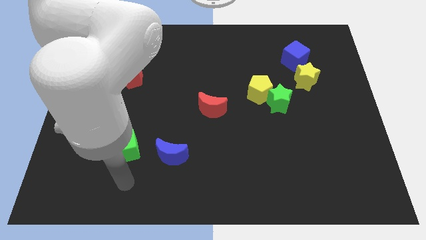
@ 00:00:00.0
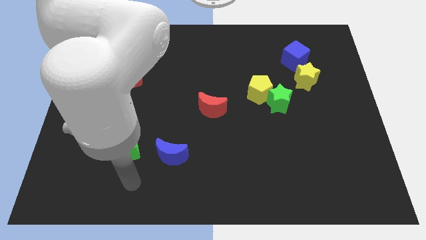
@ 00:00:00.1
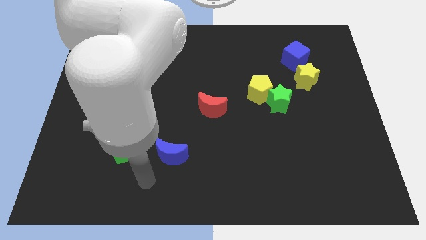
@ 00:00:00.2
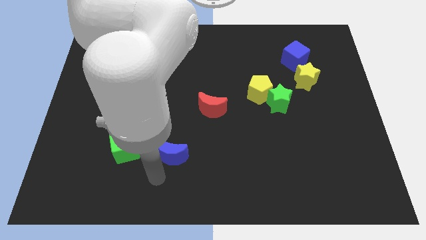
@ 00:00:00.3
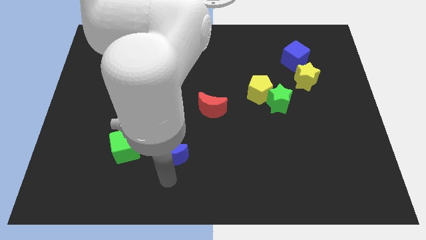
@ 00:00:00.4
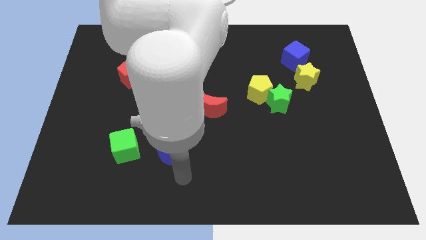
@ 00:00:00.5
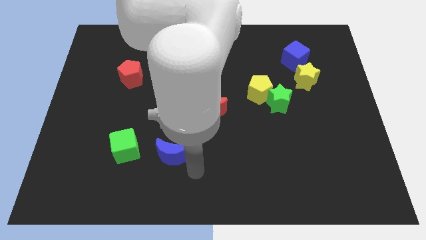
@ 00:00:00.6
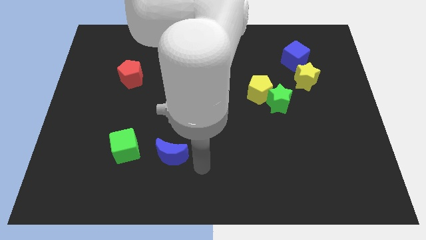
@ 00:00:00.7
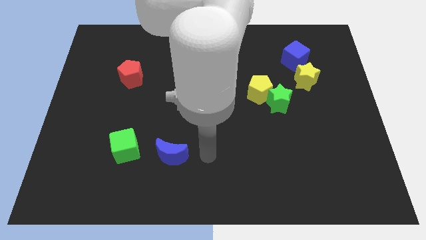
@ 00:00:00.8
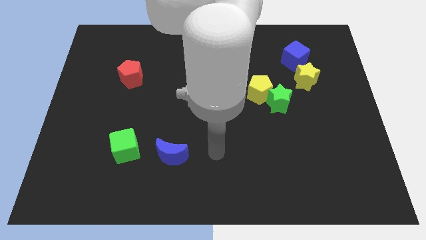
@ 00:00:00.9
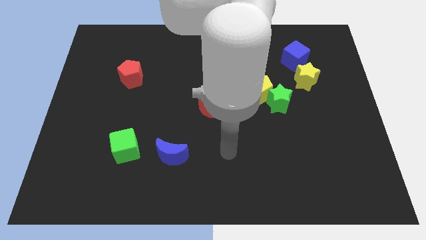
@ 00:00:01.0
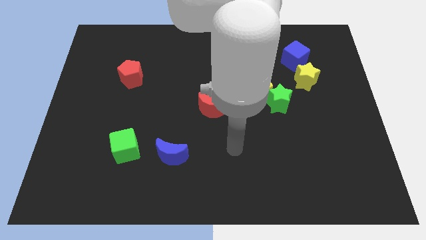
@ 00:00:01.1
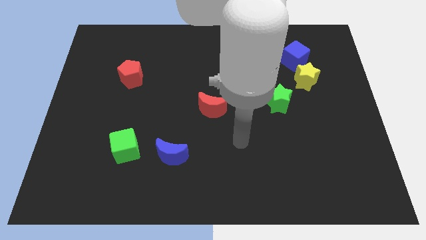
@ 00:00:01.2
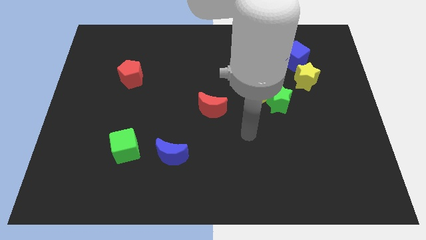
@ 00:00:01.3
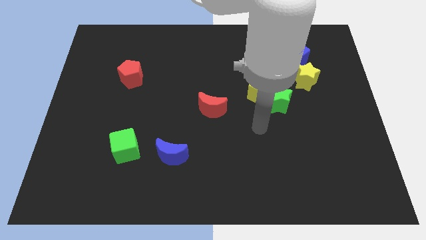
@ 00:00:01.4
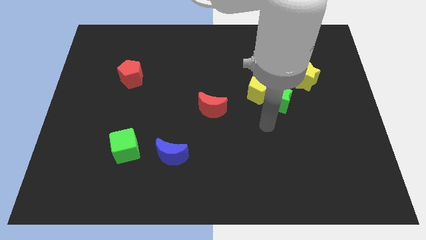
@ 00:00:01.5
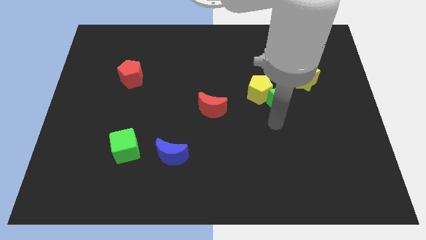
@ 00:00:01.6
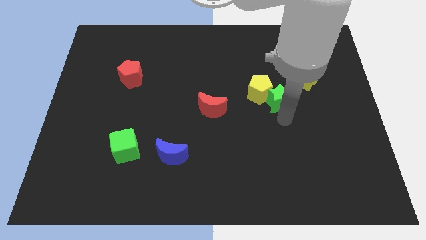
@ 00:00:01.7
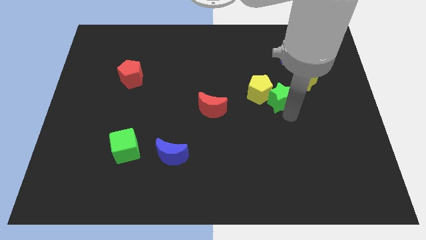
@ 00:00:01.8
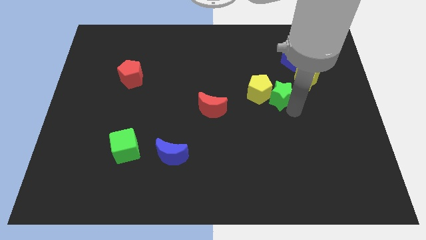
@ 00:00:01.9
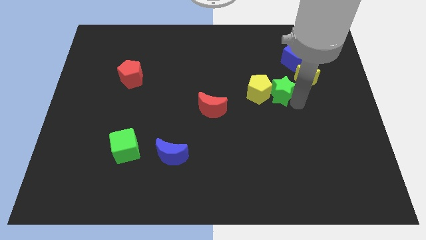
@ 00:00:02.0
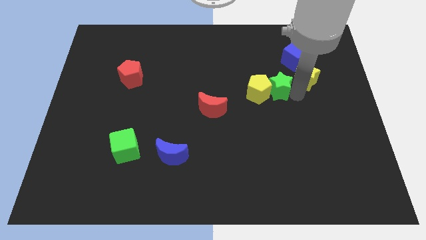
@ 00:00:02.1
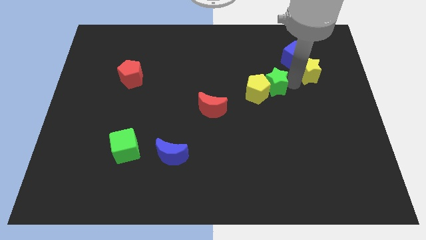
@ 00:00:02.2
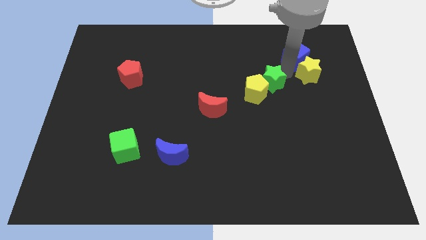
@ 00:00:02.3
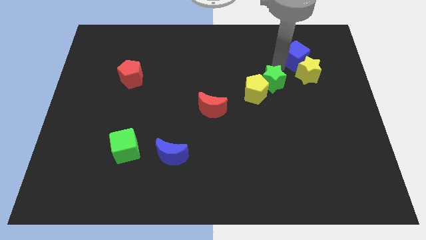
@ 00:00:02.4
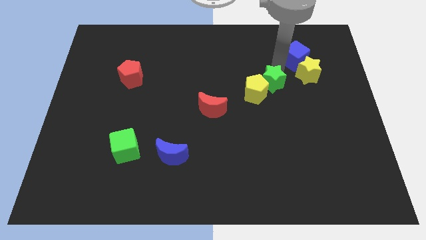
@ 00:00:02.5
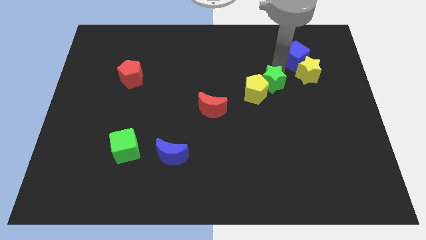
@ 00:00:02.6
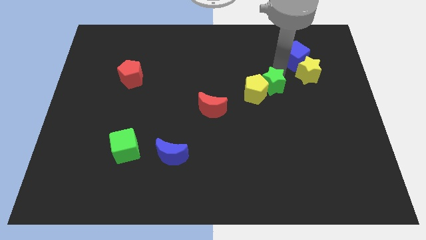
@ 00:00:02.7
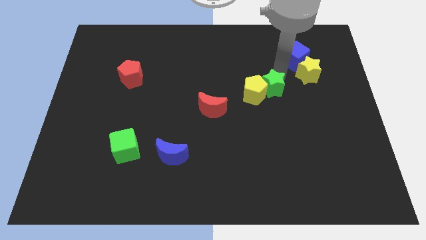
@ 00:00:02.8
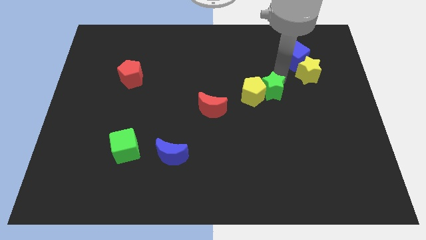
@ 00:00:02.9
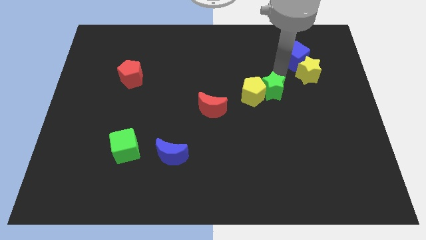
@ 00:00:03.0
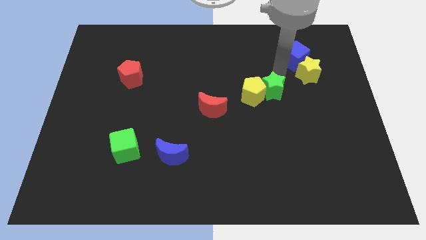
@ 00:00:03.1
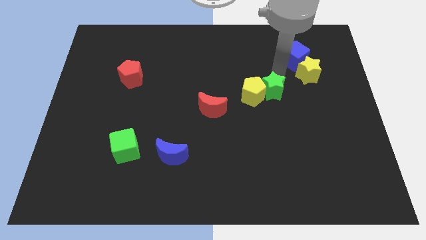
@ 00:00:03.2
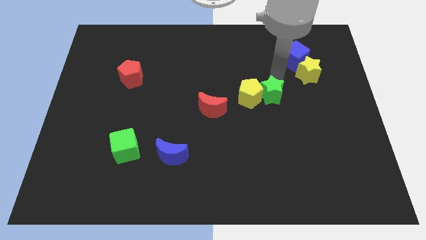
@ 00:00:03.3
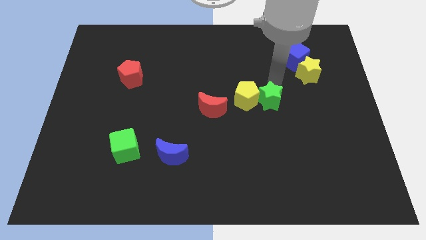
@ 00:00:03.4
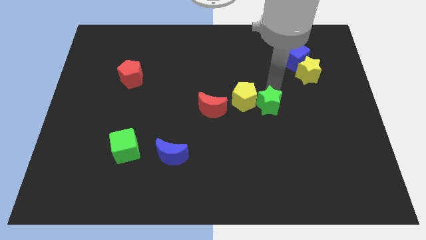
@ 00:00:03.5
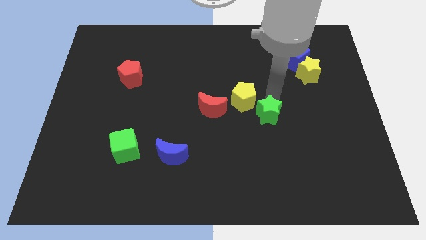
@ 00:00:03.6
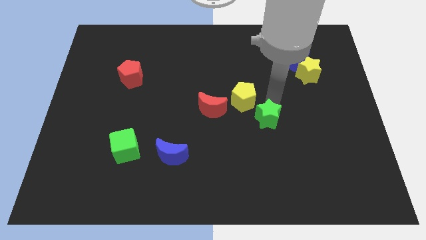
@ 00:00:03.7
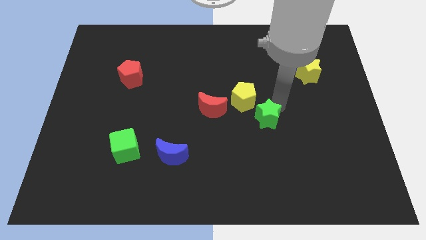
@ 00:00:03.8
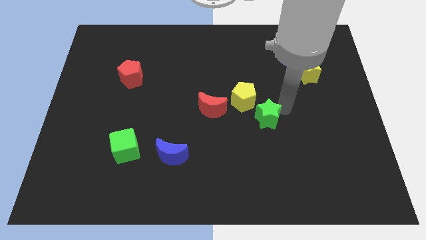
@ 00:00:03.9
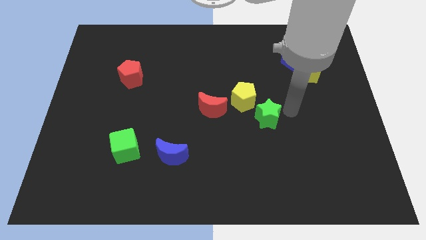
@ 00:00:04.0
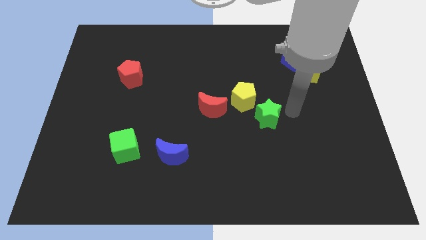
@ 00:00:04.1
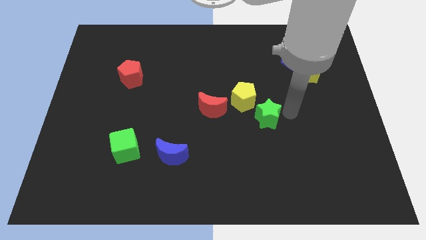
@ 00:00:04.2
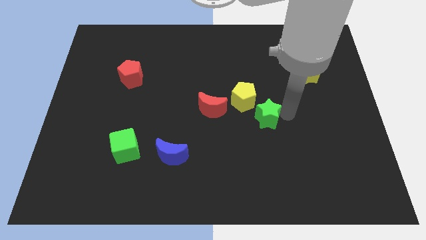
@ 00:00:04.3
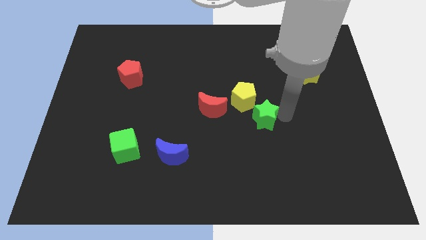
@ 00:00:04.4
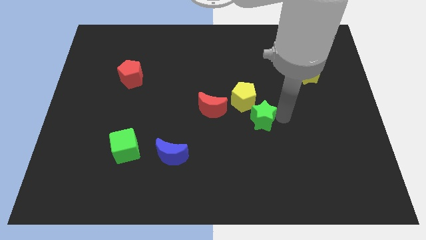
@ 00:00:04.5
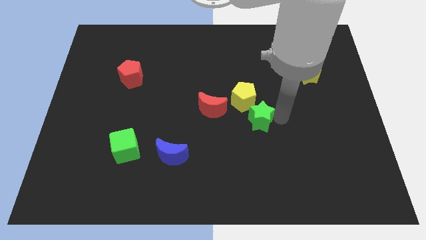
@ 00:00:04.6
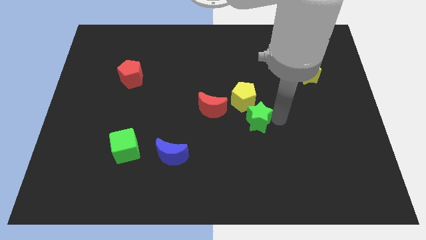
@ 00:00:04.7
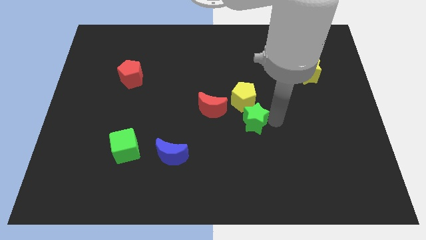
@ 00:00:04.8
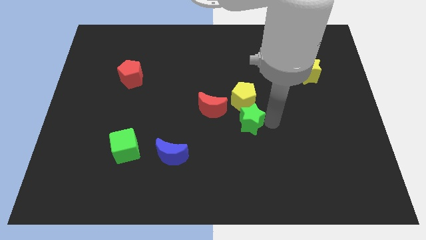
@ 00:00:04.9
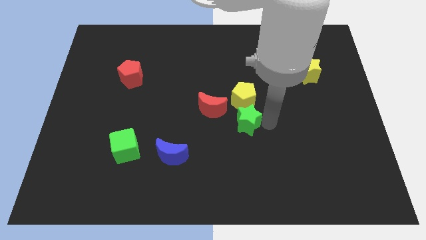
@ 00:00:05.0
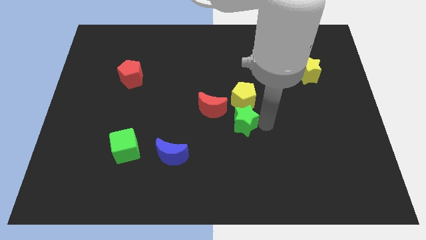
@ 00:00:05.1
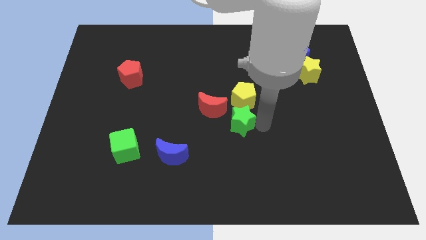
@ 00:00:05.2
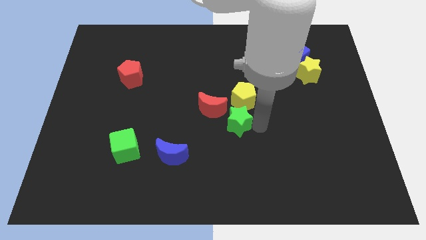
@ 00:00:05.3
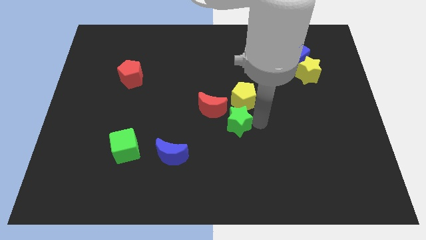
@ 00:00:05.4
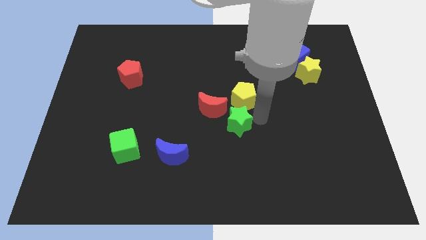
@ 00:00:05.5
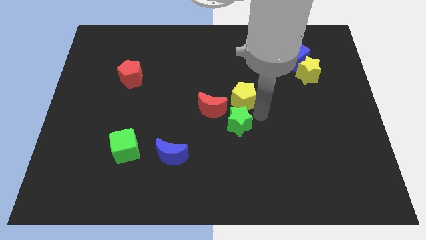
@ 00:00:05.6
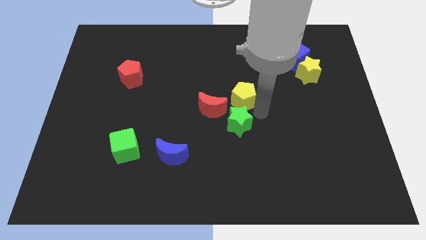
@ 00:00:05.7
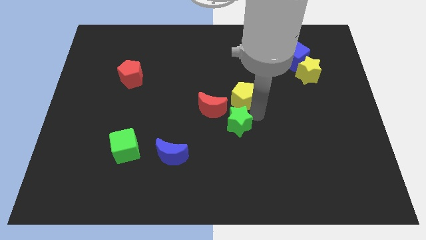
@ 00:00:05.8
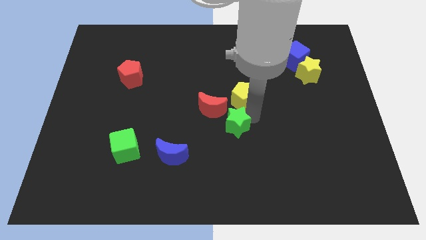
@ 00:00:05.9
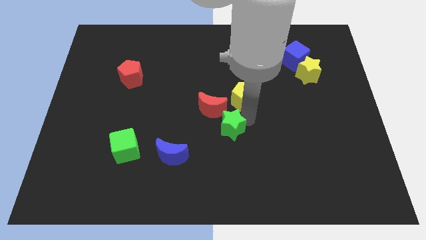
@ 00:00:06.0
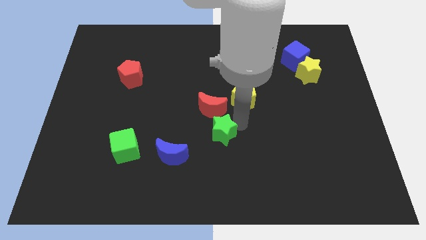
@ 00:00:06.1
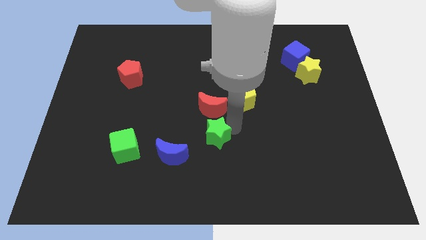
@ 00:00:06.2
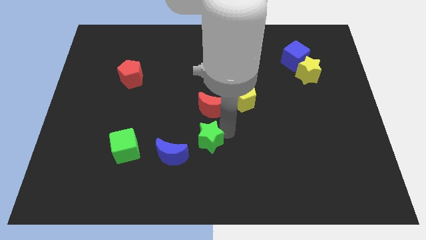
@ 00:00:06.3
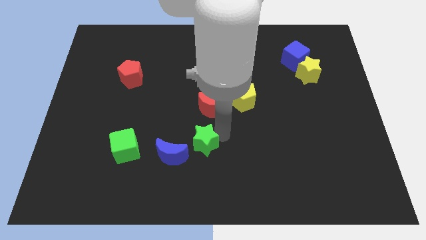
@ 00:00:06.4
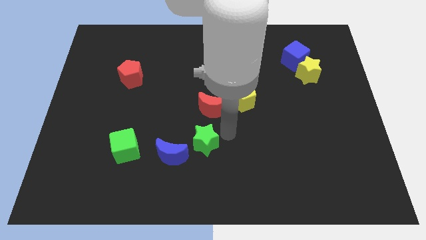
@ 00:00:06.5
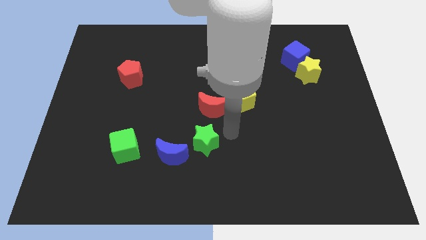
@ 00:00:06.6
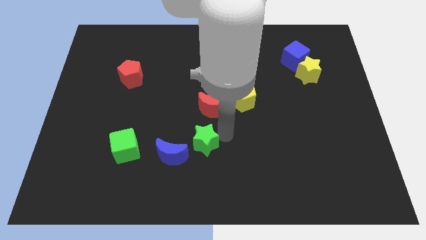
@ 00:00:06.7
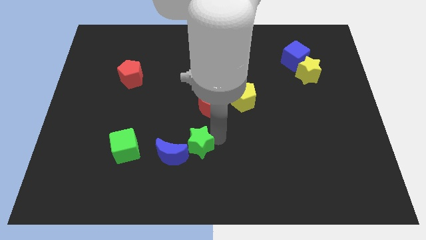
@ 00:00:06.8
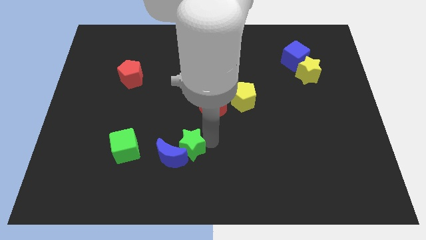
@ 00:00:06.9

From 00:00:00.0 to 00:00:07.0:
move the green star next to the blue moon
